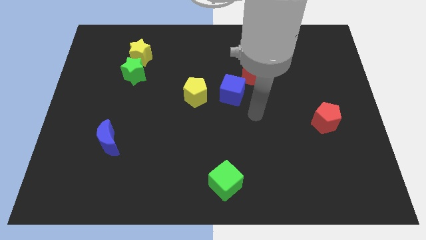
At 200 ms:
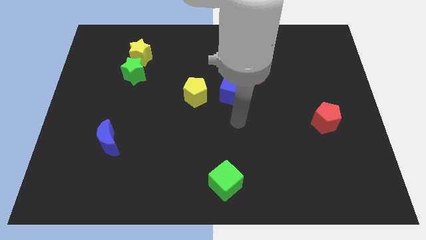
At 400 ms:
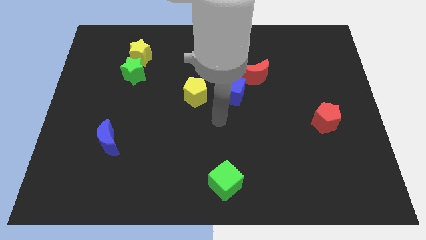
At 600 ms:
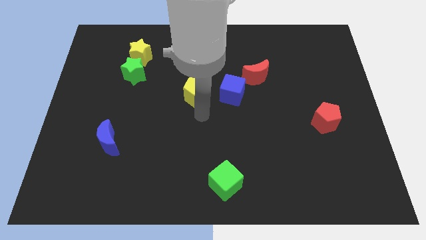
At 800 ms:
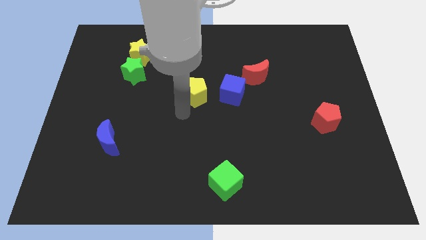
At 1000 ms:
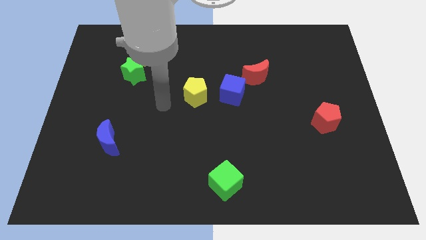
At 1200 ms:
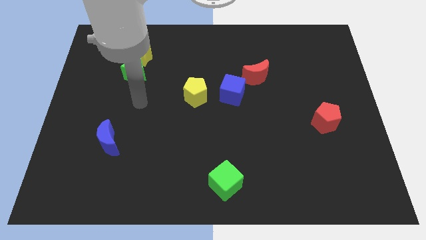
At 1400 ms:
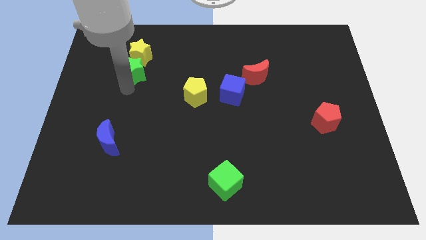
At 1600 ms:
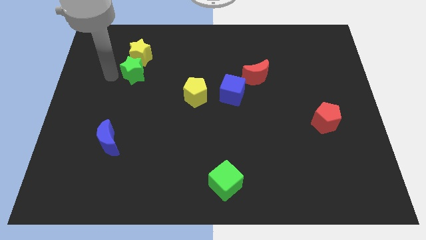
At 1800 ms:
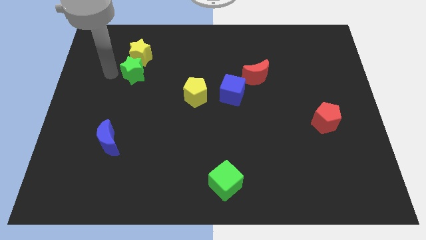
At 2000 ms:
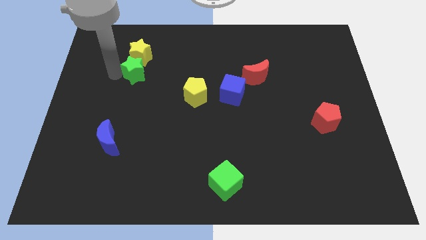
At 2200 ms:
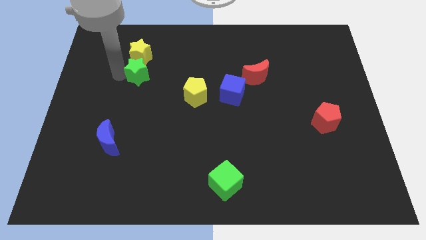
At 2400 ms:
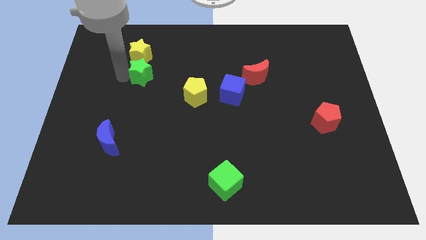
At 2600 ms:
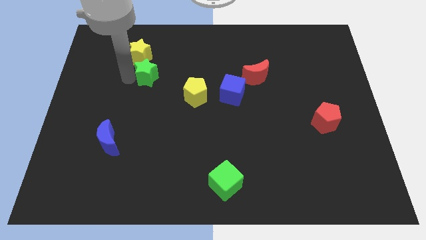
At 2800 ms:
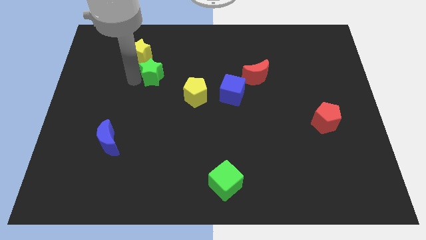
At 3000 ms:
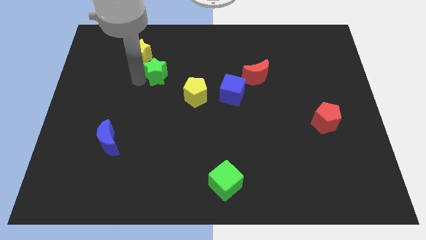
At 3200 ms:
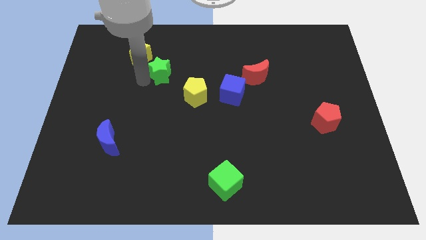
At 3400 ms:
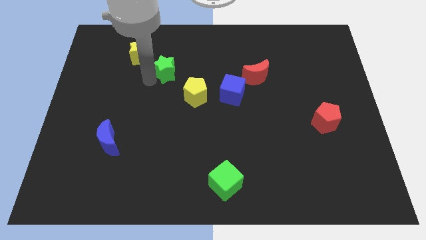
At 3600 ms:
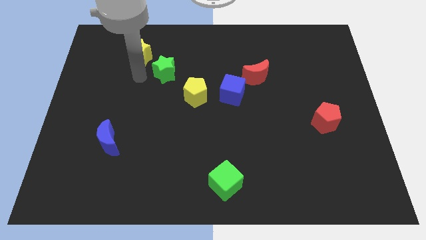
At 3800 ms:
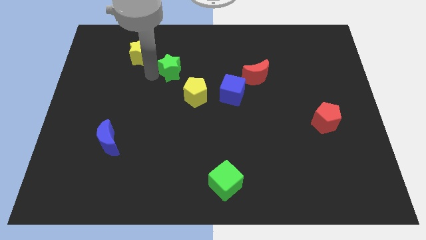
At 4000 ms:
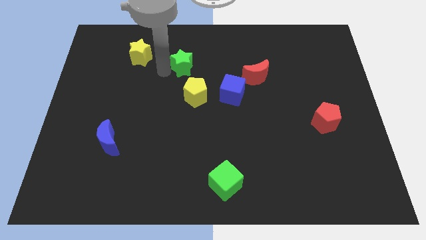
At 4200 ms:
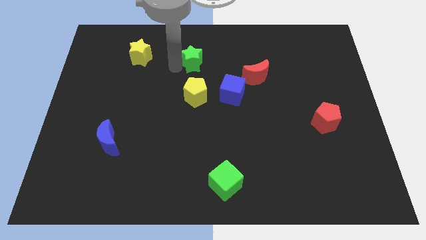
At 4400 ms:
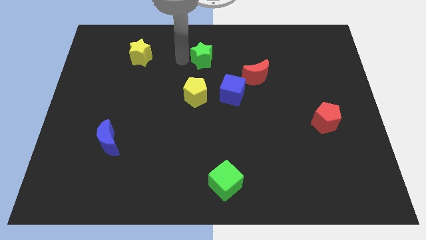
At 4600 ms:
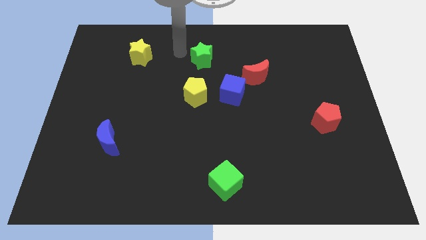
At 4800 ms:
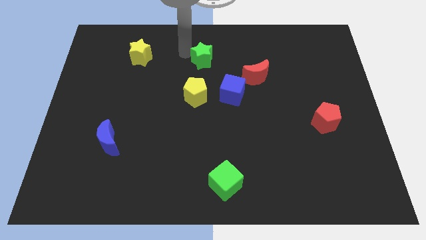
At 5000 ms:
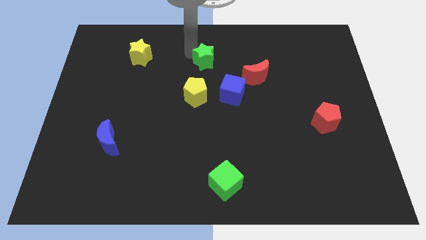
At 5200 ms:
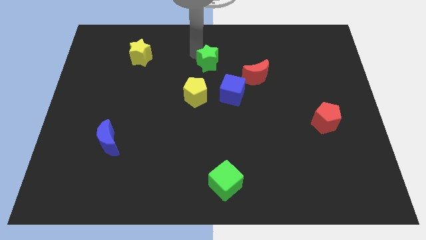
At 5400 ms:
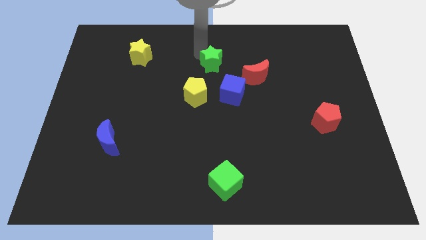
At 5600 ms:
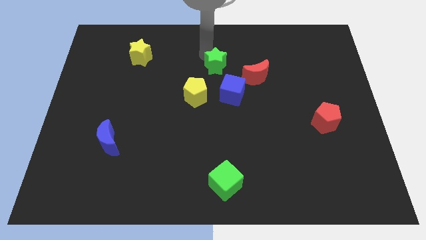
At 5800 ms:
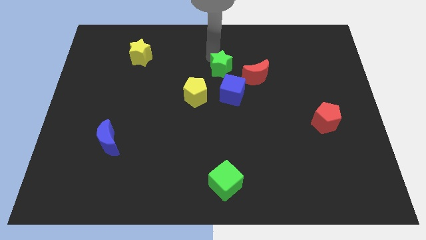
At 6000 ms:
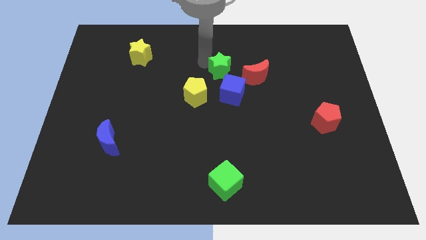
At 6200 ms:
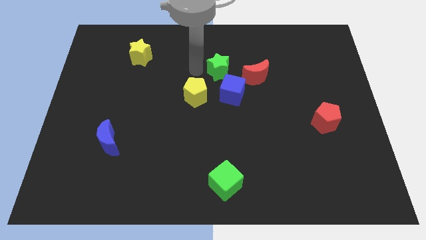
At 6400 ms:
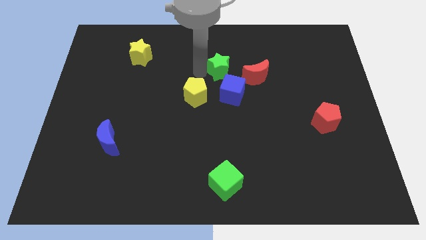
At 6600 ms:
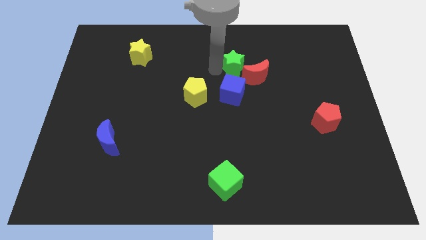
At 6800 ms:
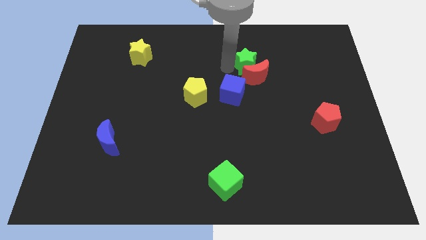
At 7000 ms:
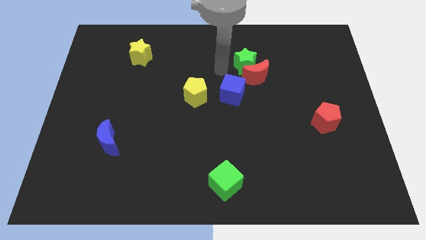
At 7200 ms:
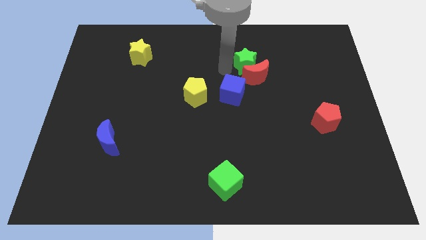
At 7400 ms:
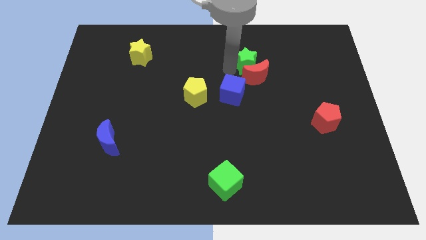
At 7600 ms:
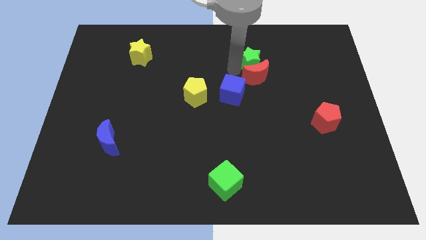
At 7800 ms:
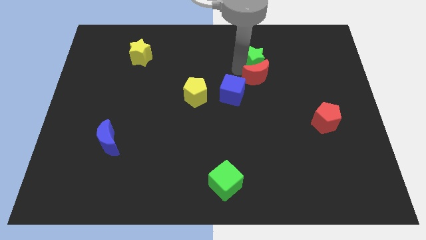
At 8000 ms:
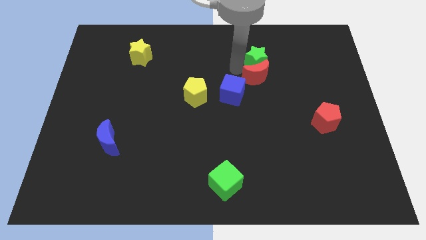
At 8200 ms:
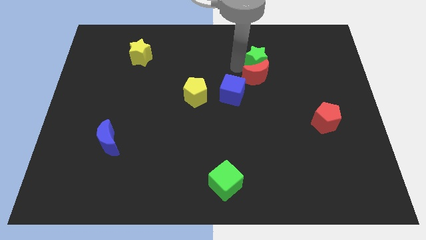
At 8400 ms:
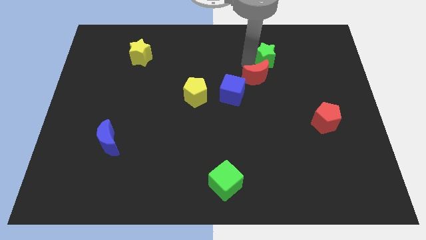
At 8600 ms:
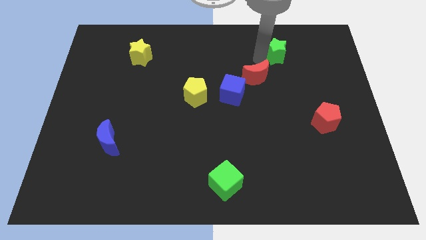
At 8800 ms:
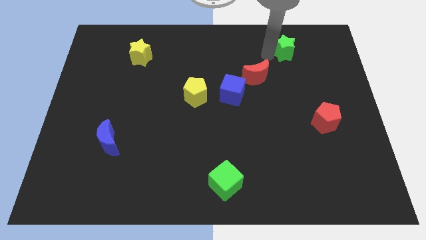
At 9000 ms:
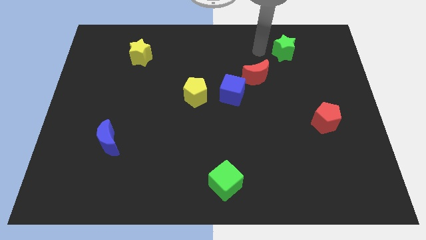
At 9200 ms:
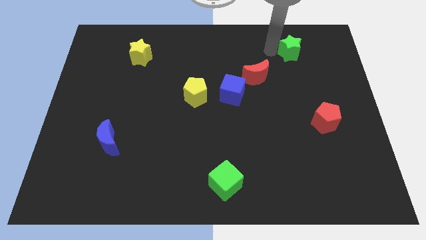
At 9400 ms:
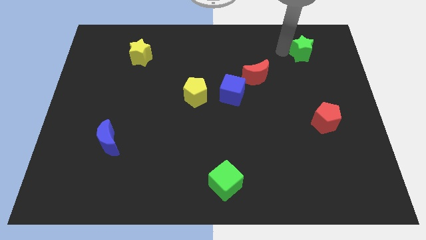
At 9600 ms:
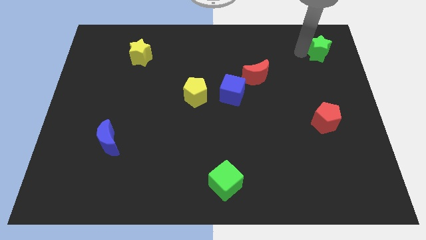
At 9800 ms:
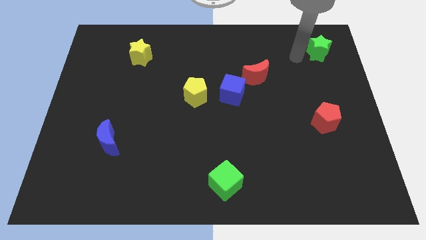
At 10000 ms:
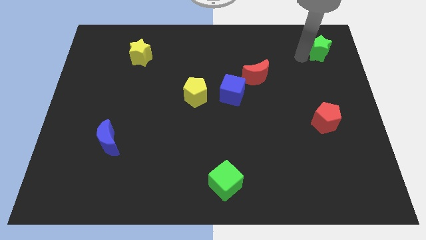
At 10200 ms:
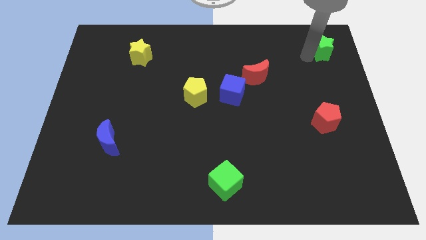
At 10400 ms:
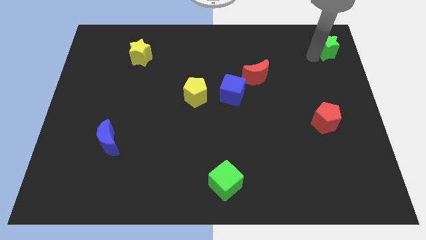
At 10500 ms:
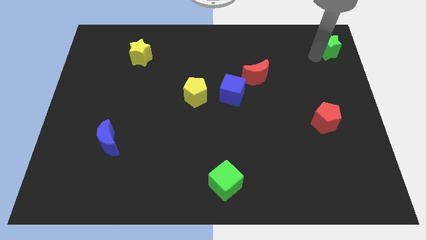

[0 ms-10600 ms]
move the green star to the top right
